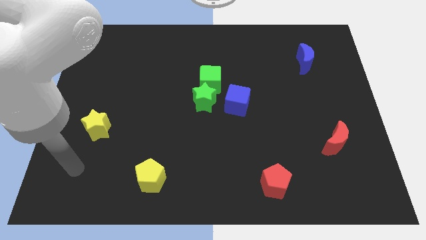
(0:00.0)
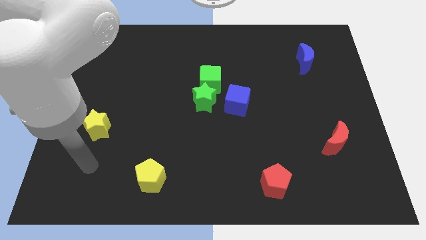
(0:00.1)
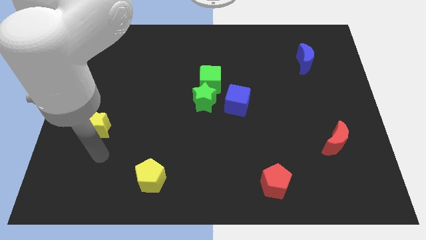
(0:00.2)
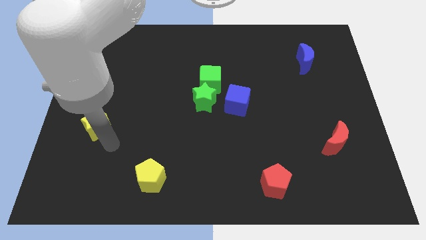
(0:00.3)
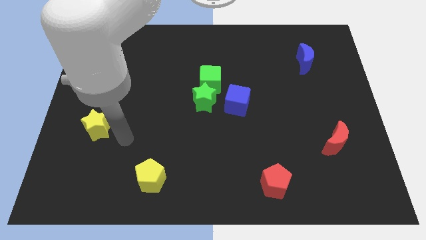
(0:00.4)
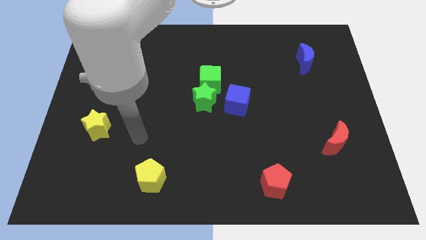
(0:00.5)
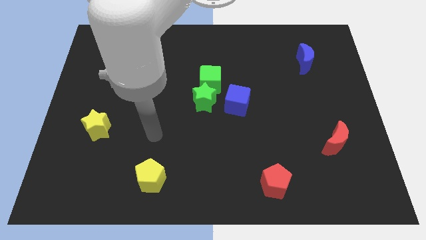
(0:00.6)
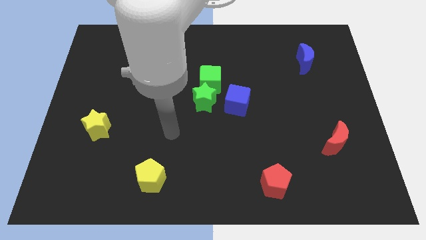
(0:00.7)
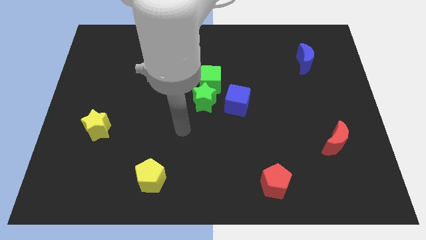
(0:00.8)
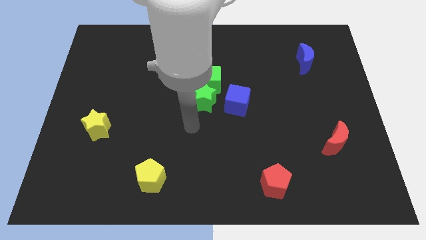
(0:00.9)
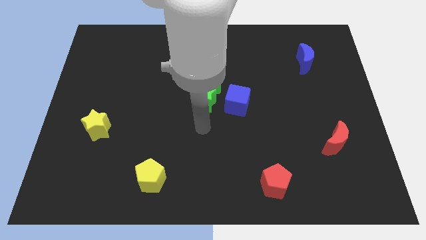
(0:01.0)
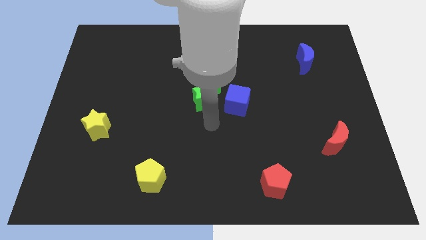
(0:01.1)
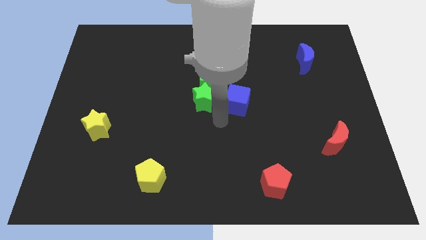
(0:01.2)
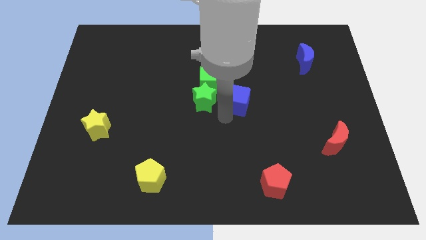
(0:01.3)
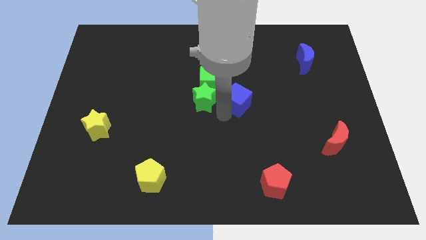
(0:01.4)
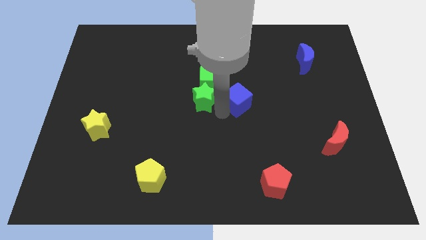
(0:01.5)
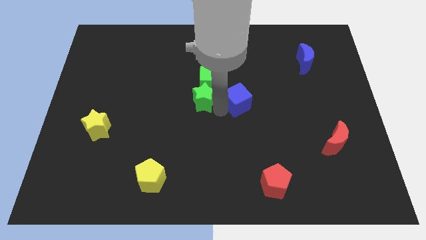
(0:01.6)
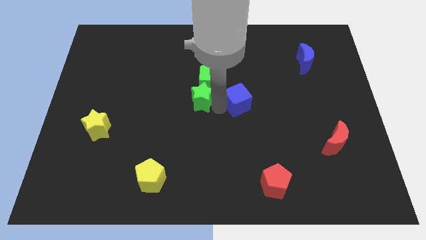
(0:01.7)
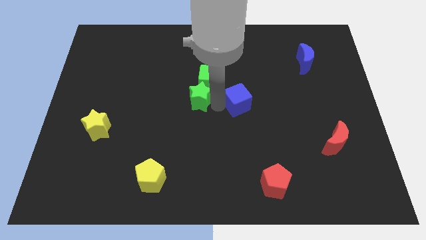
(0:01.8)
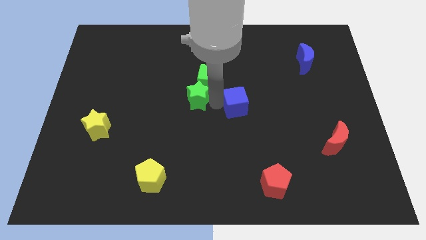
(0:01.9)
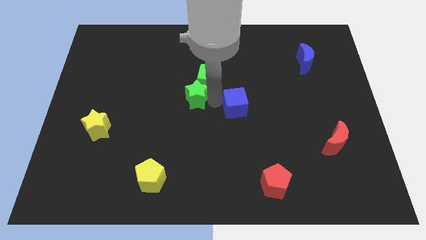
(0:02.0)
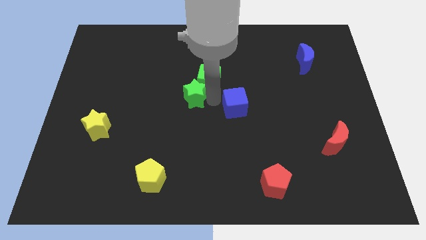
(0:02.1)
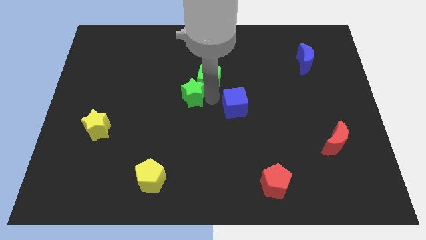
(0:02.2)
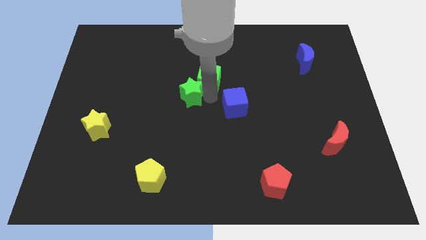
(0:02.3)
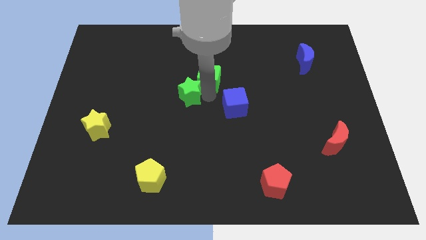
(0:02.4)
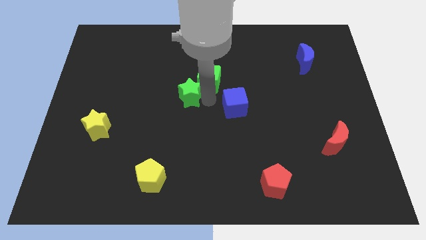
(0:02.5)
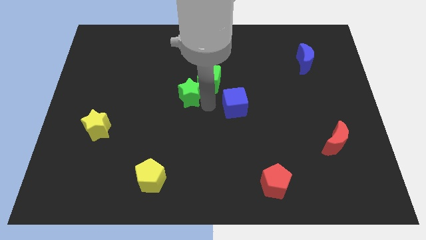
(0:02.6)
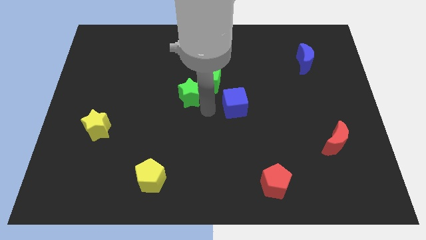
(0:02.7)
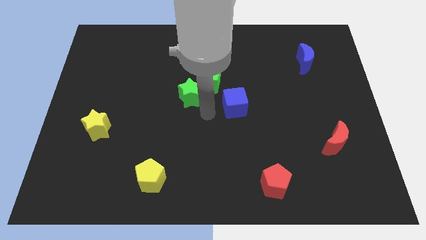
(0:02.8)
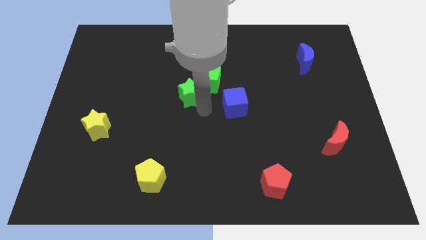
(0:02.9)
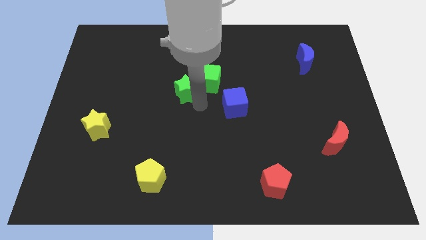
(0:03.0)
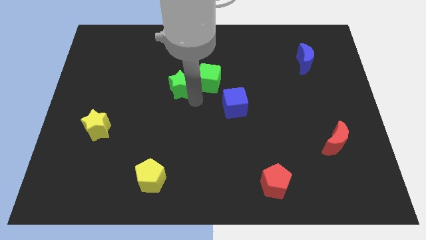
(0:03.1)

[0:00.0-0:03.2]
push the green star up and left diagonally a little

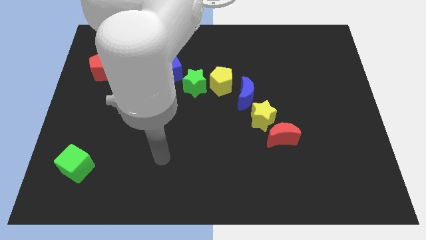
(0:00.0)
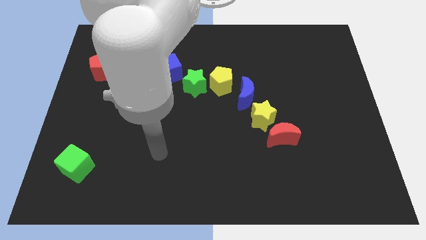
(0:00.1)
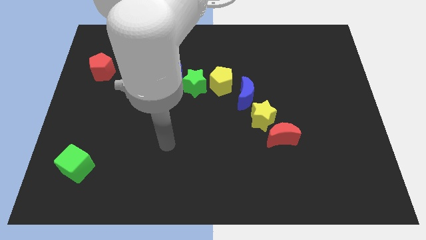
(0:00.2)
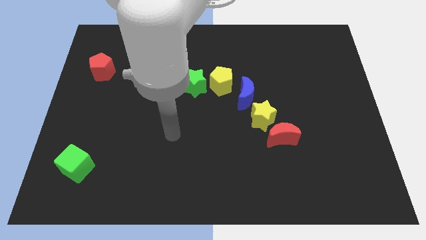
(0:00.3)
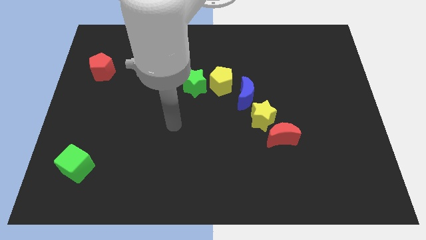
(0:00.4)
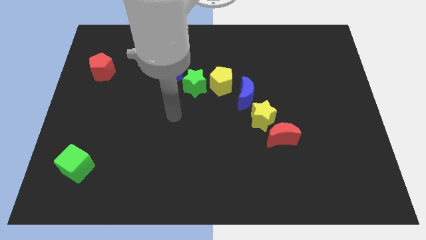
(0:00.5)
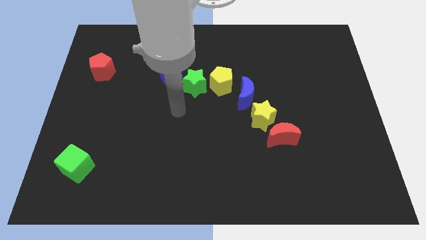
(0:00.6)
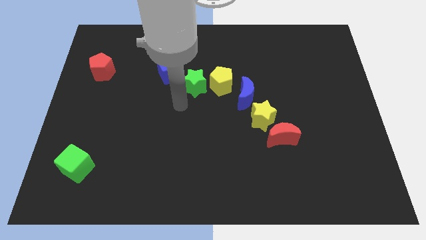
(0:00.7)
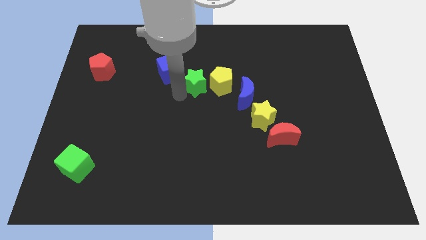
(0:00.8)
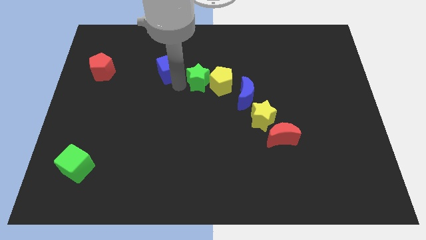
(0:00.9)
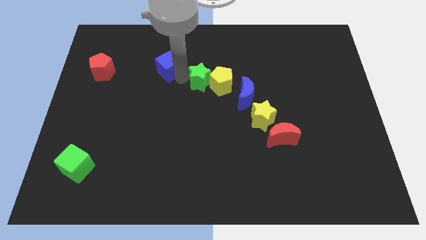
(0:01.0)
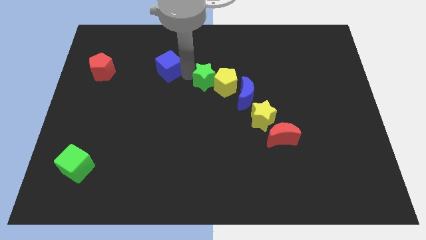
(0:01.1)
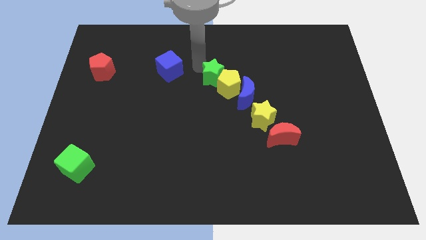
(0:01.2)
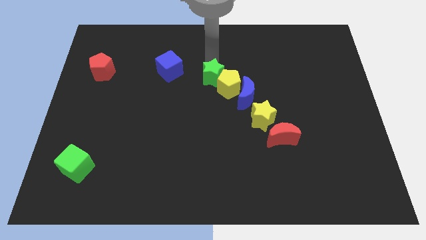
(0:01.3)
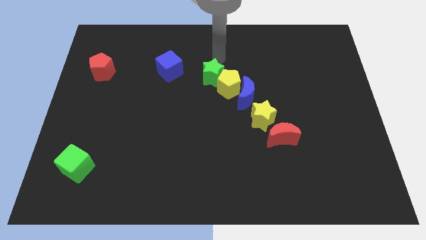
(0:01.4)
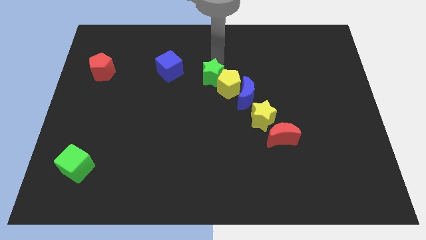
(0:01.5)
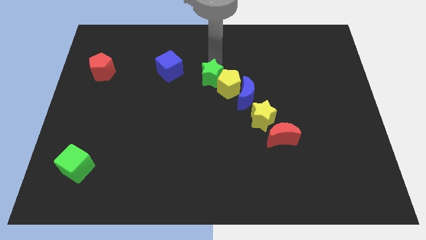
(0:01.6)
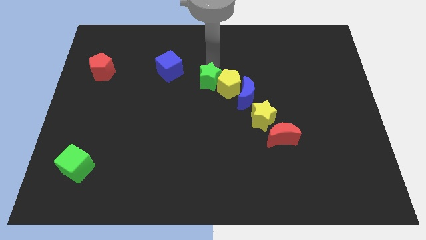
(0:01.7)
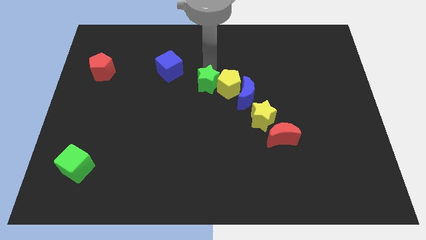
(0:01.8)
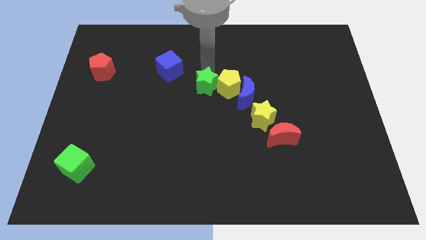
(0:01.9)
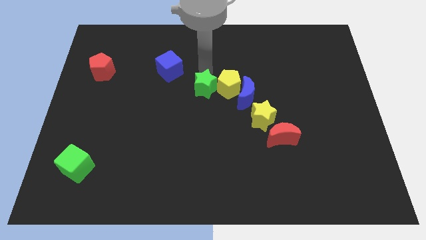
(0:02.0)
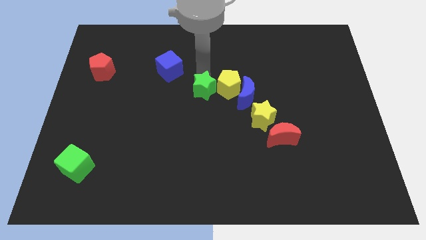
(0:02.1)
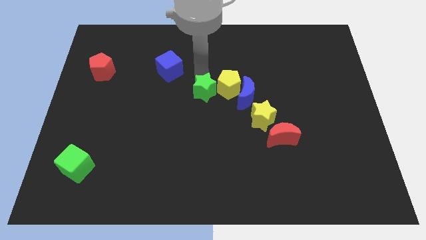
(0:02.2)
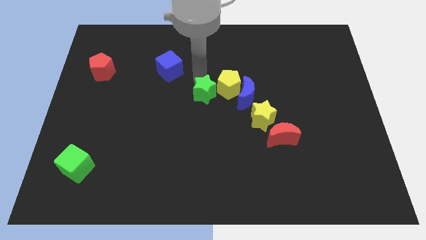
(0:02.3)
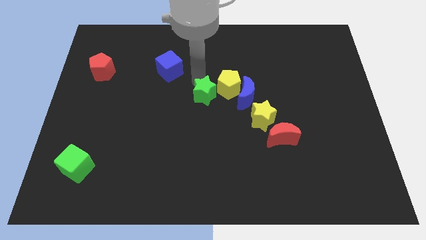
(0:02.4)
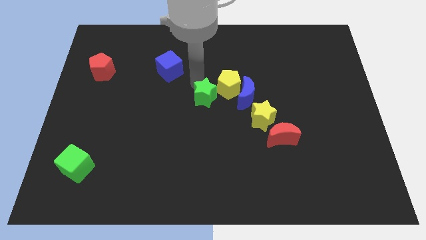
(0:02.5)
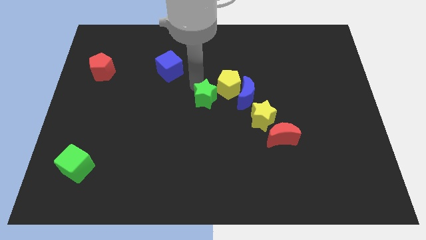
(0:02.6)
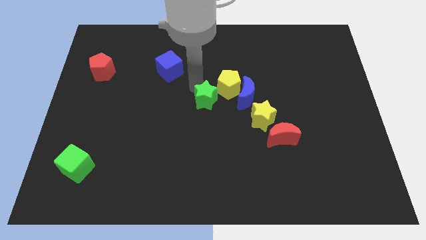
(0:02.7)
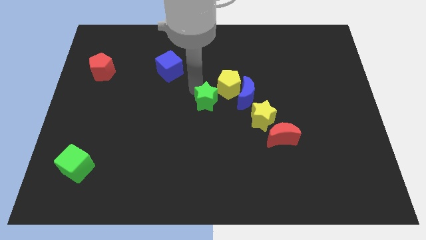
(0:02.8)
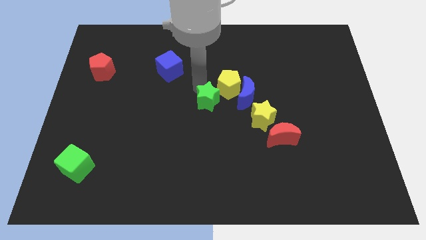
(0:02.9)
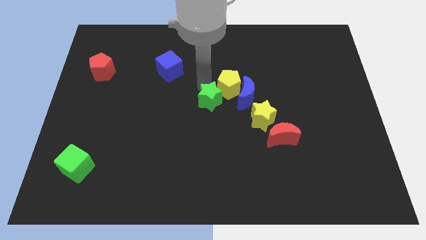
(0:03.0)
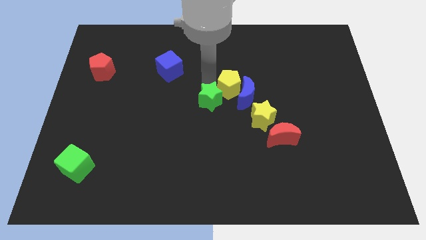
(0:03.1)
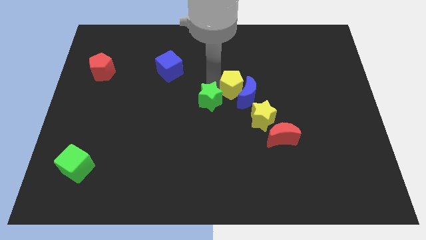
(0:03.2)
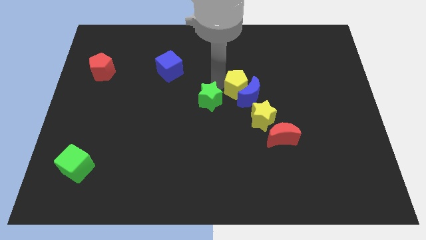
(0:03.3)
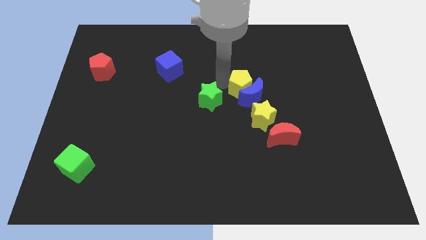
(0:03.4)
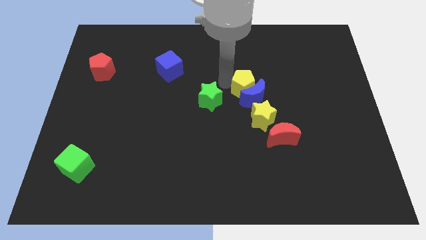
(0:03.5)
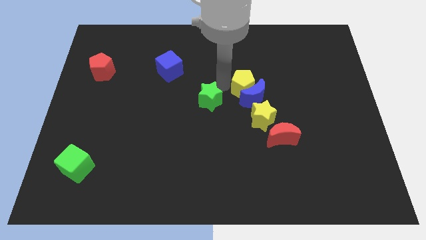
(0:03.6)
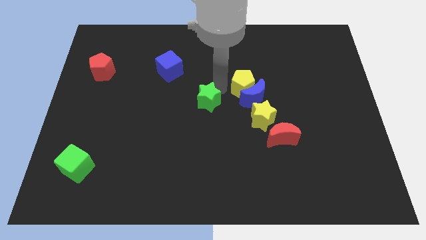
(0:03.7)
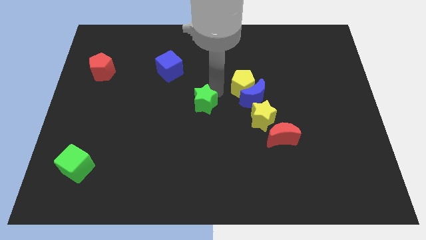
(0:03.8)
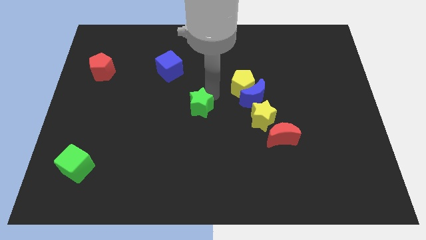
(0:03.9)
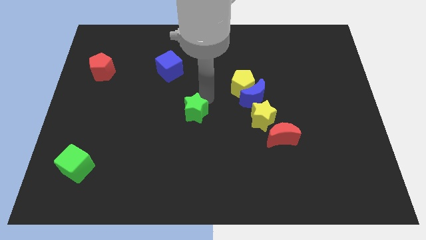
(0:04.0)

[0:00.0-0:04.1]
slide the green star down a little bit

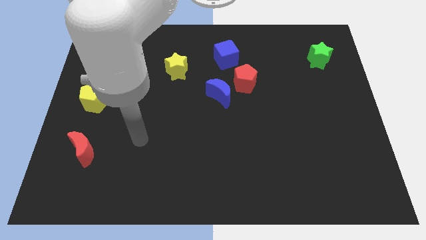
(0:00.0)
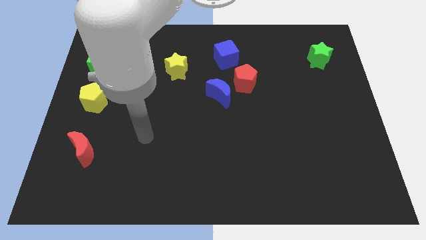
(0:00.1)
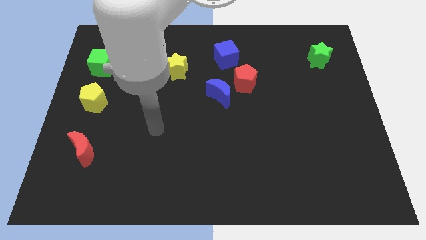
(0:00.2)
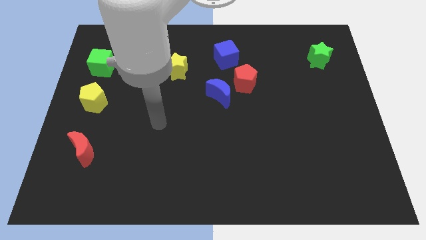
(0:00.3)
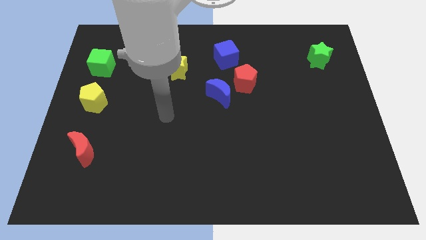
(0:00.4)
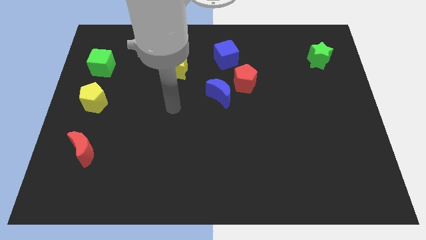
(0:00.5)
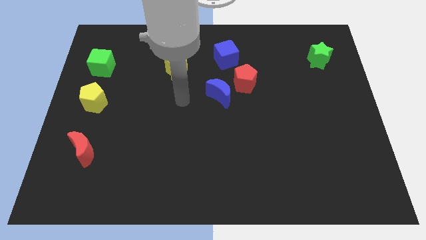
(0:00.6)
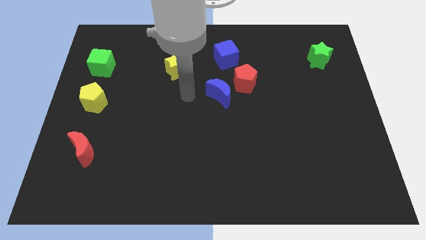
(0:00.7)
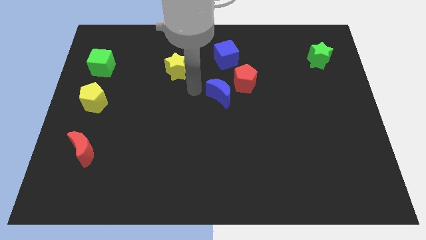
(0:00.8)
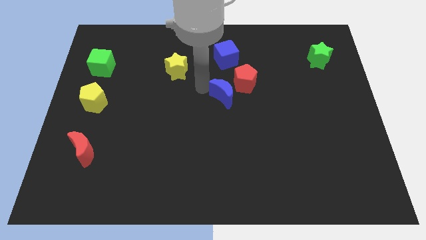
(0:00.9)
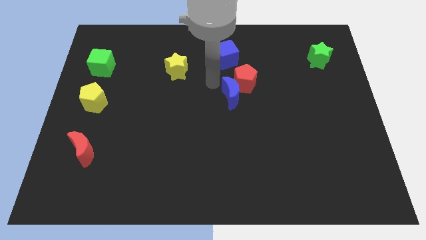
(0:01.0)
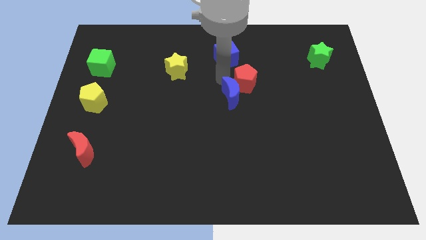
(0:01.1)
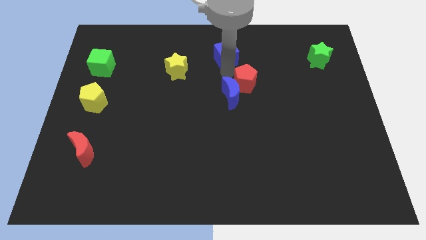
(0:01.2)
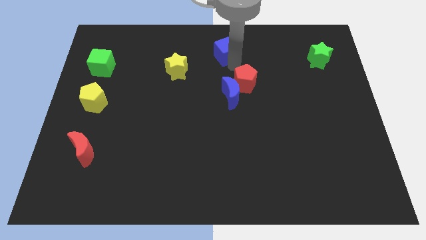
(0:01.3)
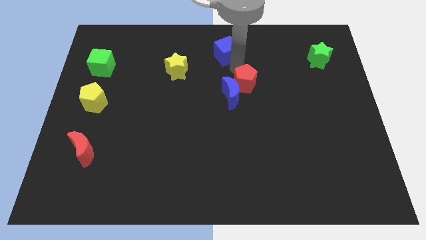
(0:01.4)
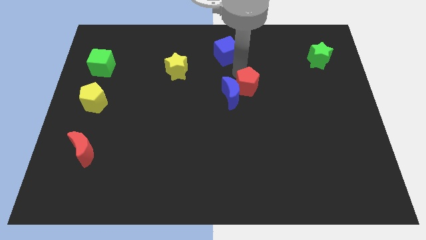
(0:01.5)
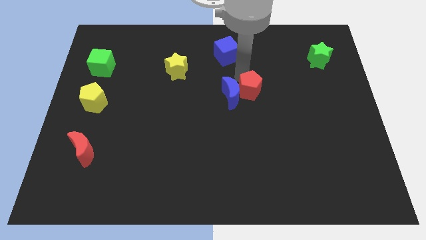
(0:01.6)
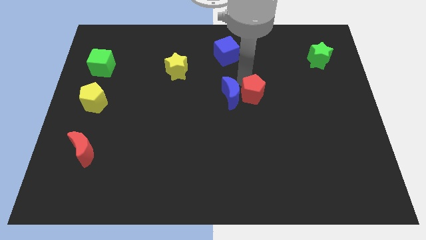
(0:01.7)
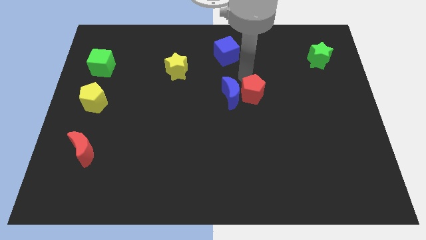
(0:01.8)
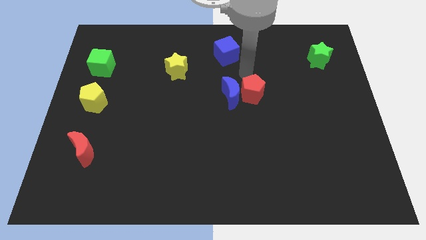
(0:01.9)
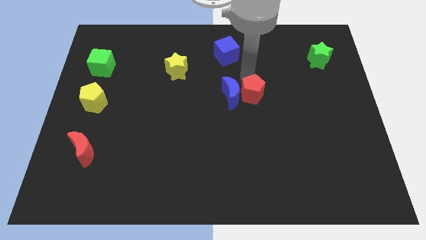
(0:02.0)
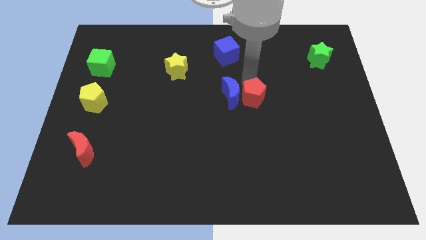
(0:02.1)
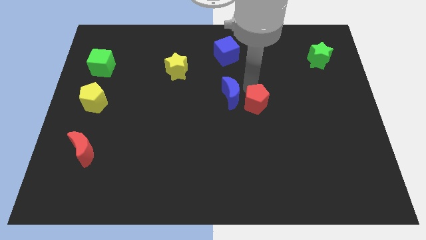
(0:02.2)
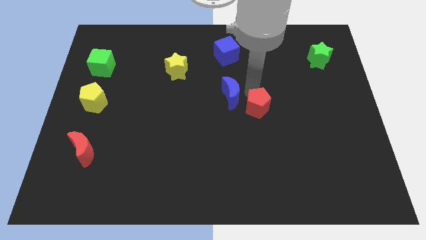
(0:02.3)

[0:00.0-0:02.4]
push the red pentagon a little bit downwards
